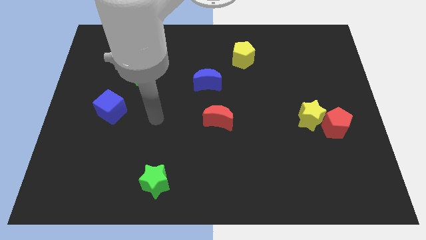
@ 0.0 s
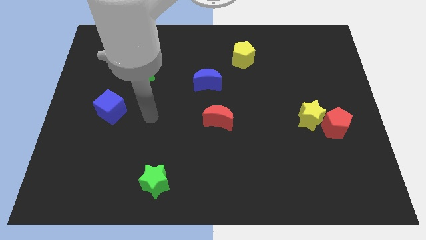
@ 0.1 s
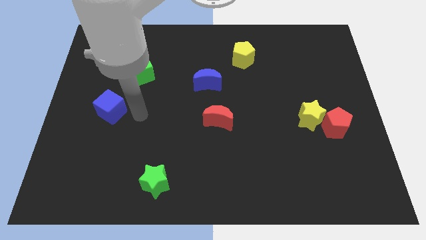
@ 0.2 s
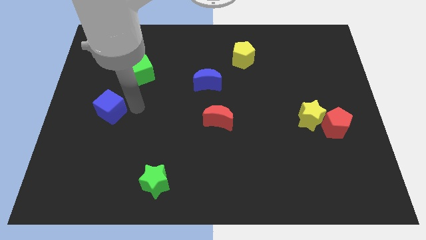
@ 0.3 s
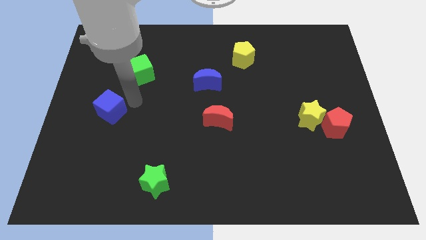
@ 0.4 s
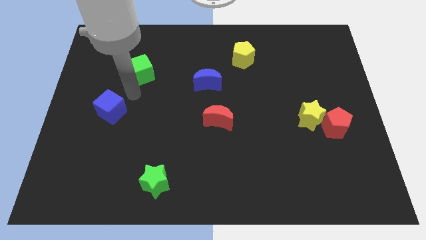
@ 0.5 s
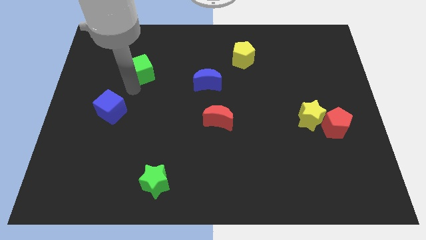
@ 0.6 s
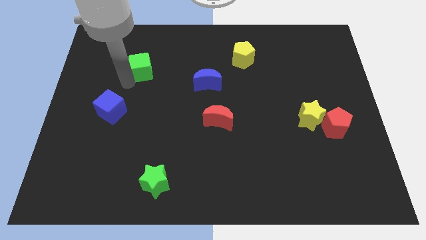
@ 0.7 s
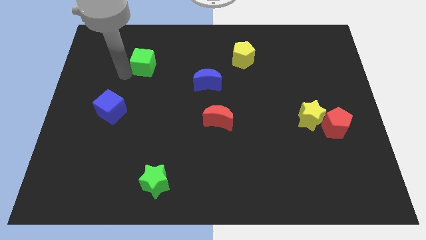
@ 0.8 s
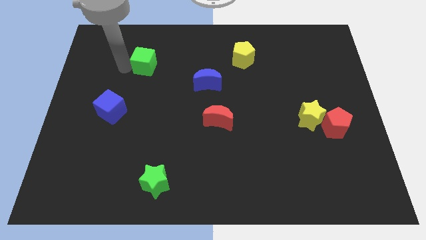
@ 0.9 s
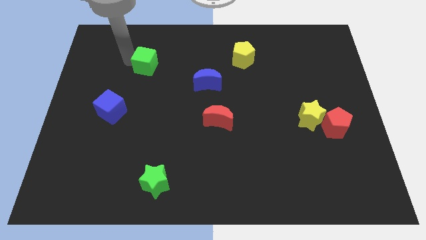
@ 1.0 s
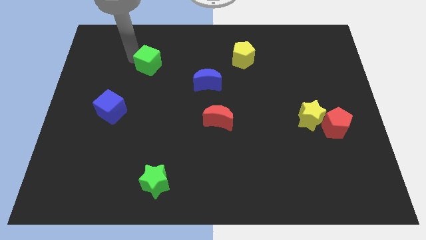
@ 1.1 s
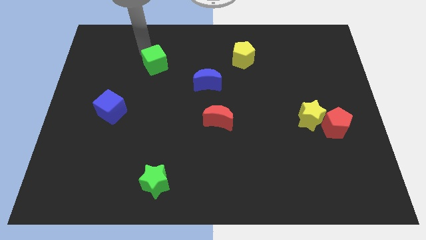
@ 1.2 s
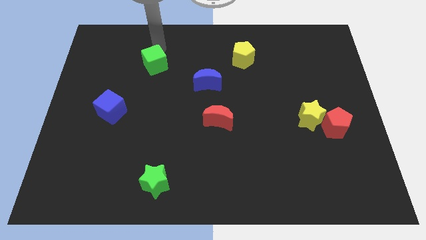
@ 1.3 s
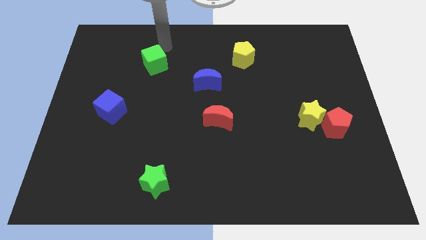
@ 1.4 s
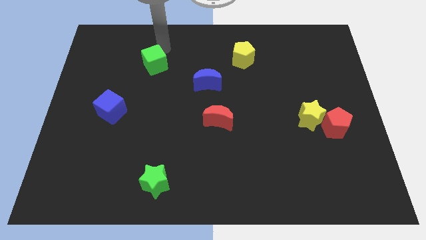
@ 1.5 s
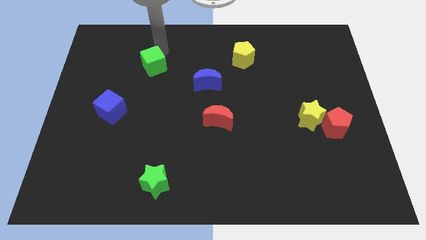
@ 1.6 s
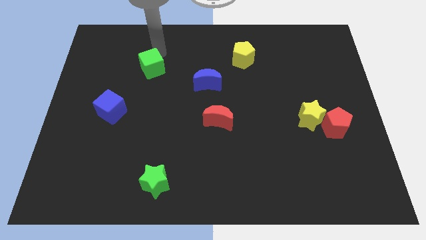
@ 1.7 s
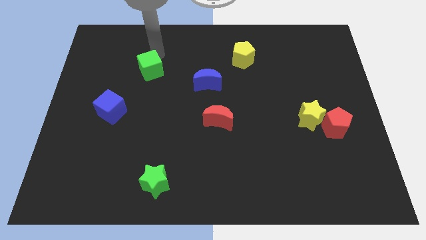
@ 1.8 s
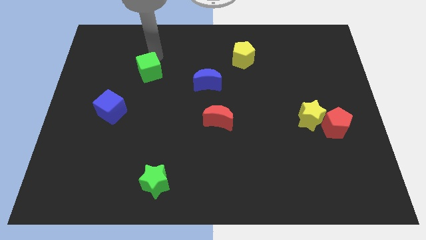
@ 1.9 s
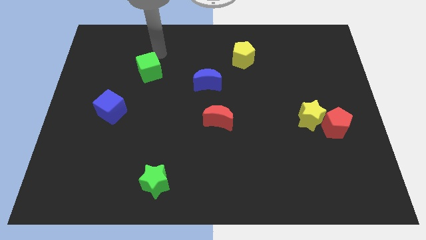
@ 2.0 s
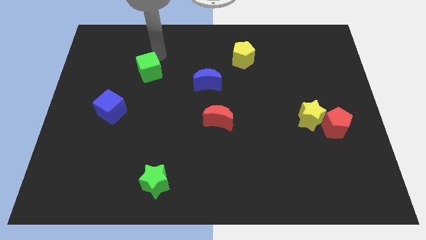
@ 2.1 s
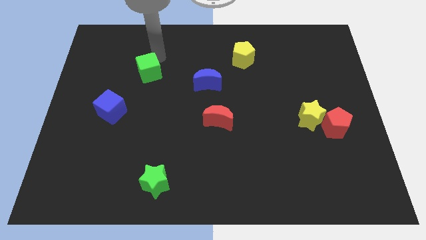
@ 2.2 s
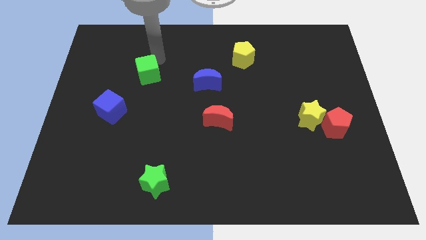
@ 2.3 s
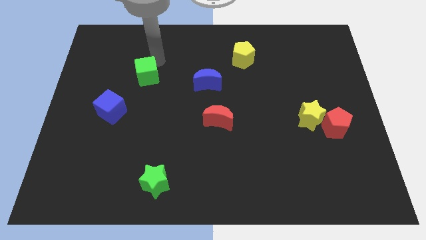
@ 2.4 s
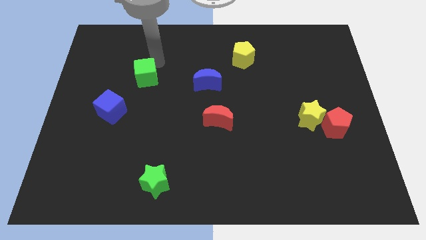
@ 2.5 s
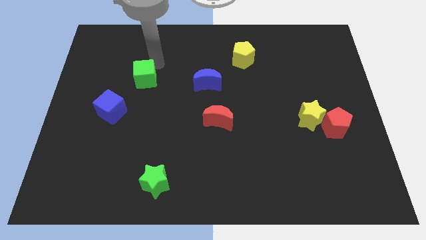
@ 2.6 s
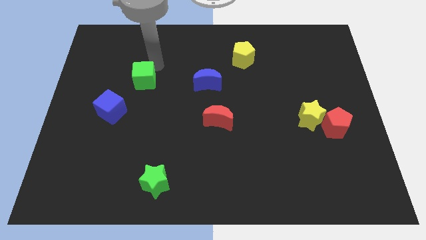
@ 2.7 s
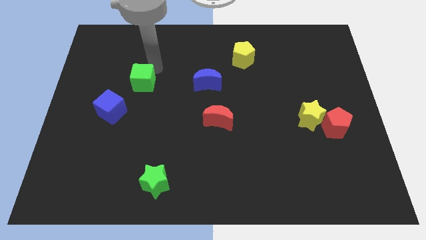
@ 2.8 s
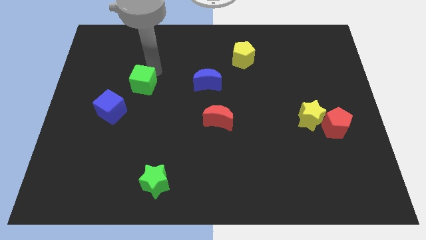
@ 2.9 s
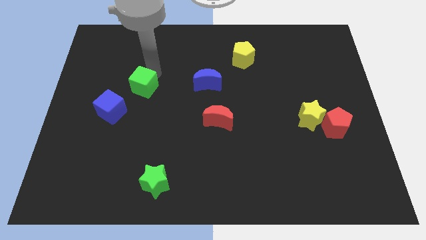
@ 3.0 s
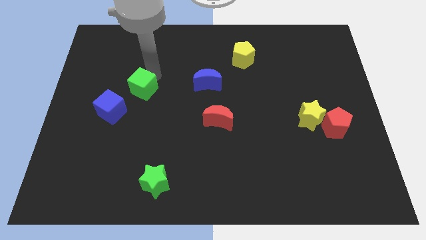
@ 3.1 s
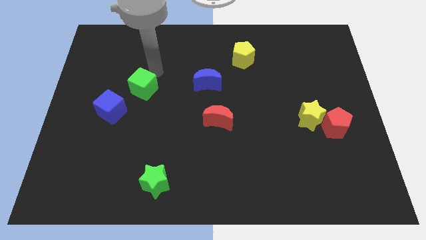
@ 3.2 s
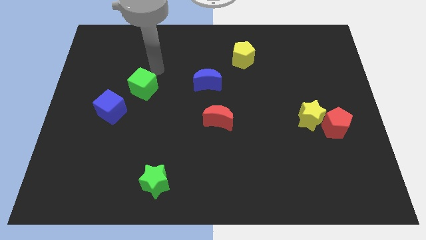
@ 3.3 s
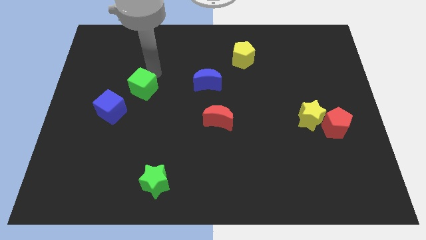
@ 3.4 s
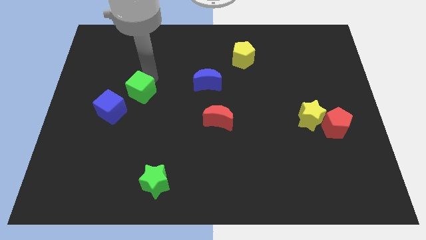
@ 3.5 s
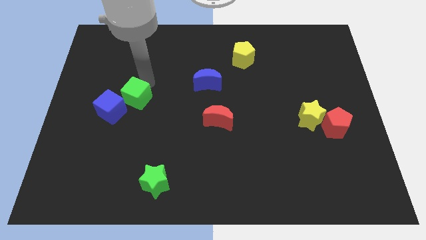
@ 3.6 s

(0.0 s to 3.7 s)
slightly move the green cube downwards

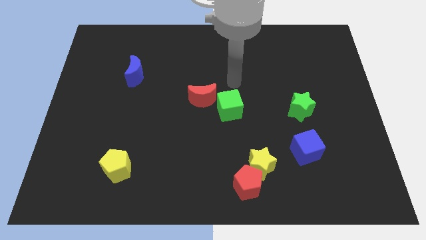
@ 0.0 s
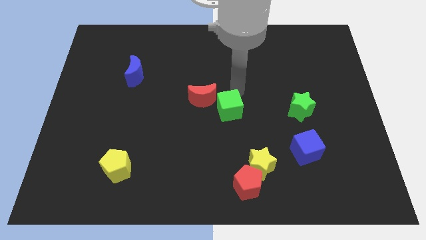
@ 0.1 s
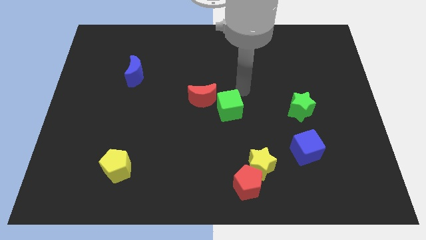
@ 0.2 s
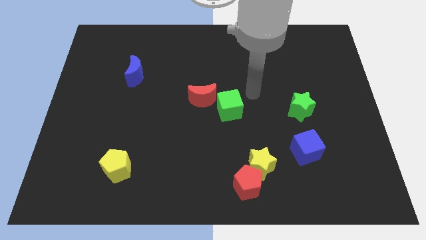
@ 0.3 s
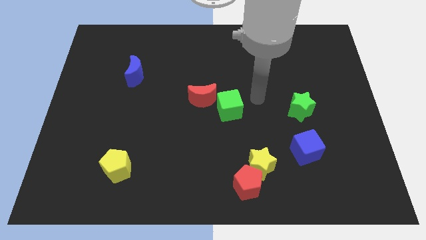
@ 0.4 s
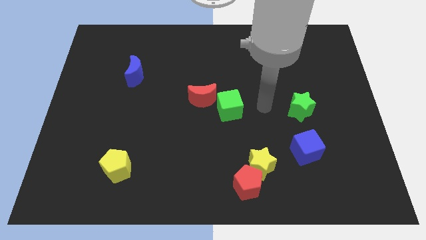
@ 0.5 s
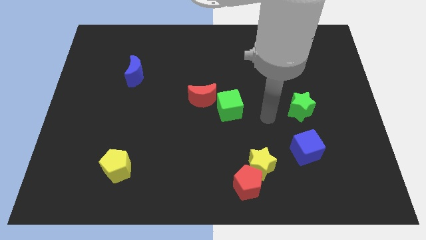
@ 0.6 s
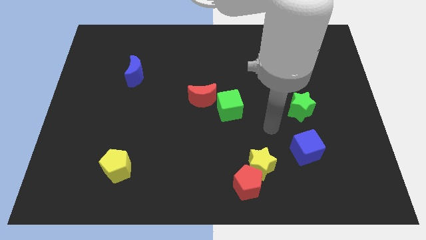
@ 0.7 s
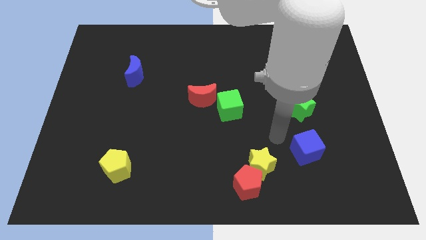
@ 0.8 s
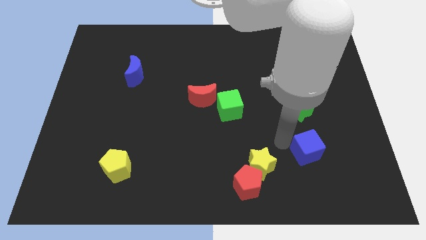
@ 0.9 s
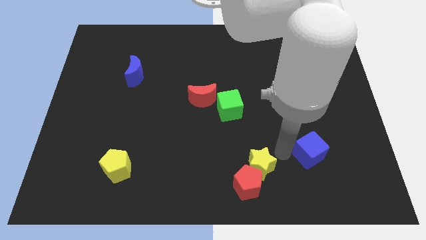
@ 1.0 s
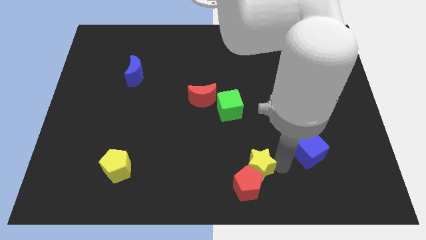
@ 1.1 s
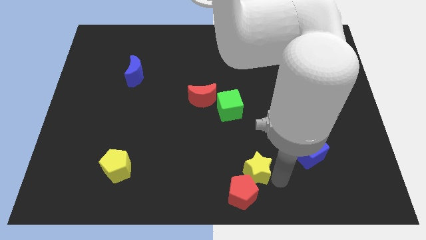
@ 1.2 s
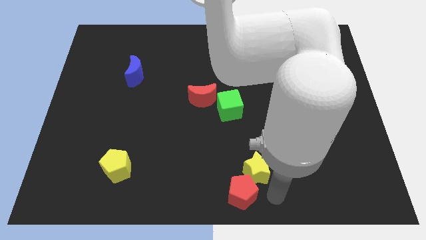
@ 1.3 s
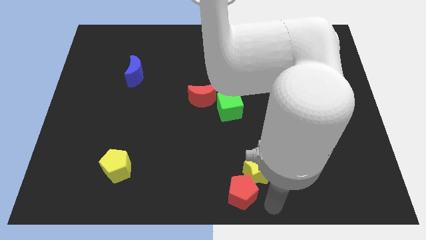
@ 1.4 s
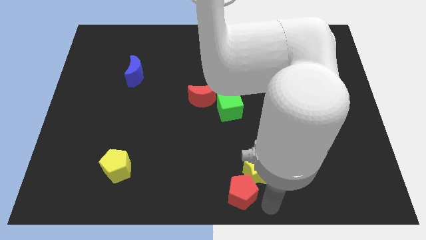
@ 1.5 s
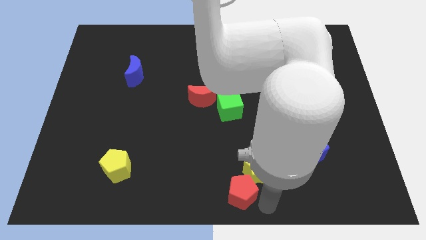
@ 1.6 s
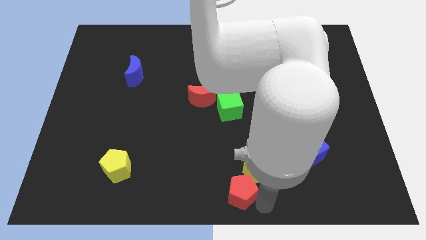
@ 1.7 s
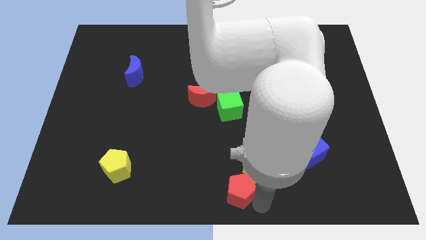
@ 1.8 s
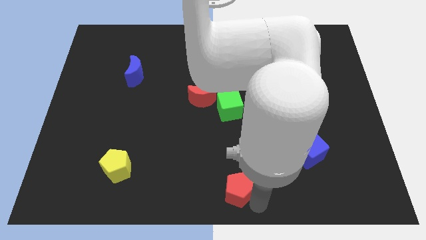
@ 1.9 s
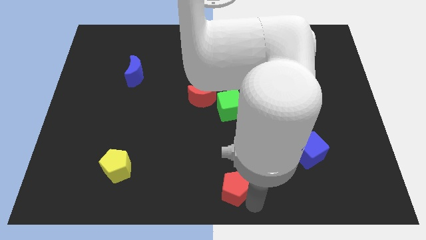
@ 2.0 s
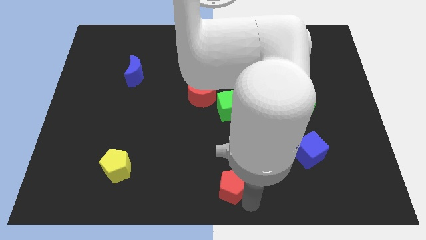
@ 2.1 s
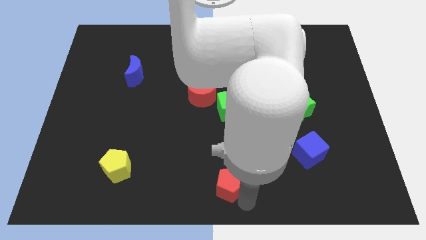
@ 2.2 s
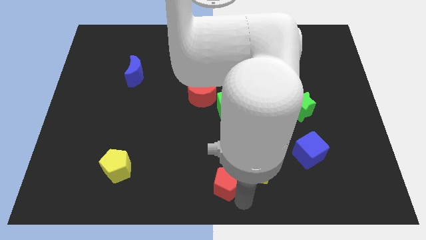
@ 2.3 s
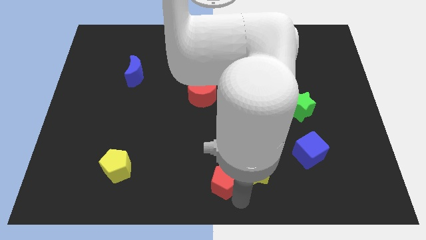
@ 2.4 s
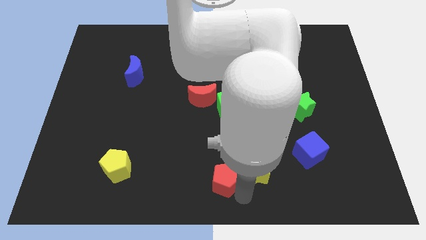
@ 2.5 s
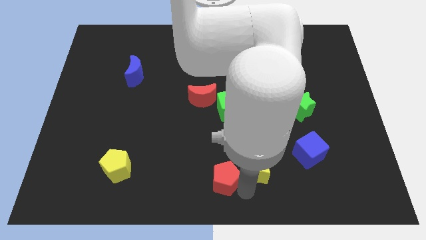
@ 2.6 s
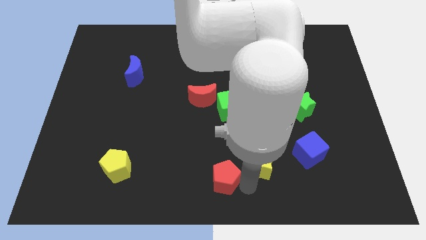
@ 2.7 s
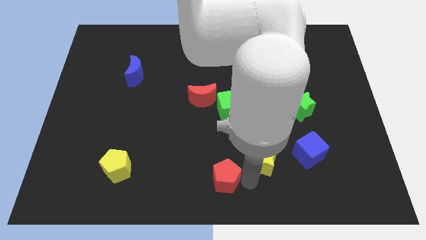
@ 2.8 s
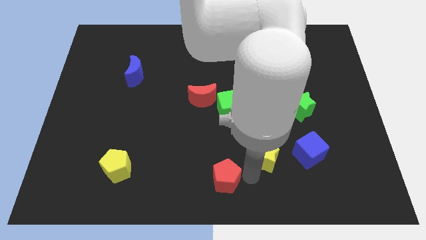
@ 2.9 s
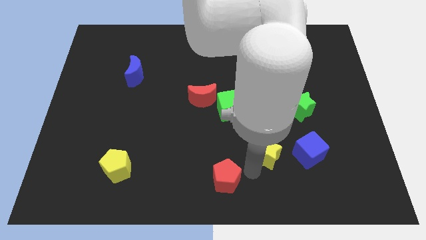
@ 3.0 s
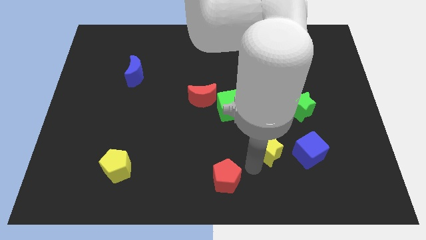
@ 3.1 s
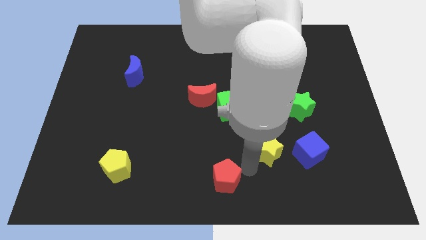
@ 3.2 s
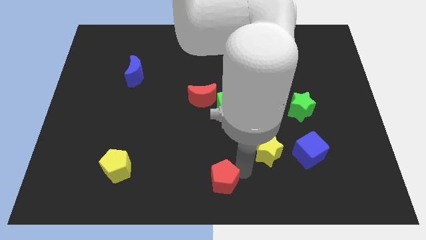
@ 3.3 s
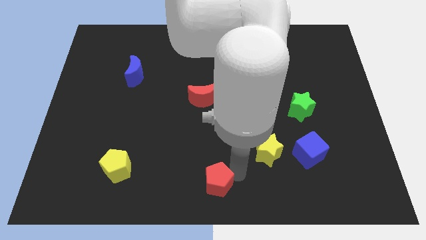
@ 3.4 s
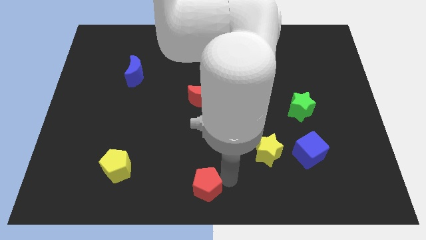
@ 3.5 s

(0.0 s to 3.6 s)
slightly push the red pentagon to the left

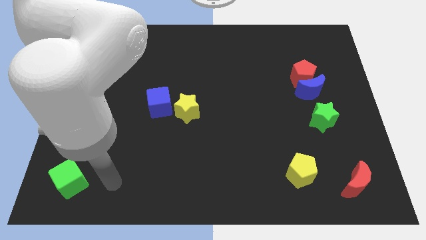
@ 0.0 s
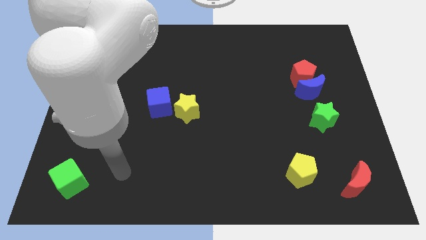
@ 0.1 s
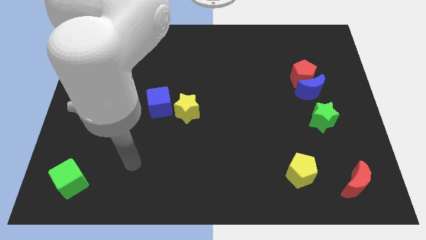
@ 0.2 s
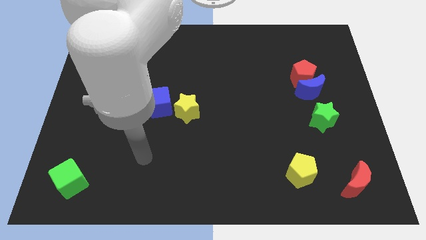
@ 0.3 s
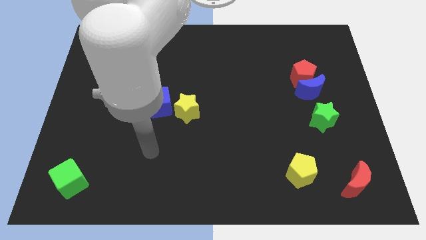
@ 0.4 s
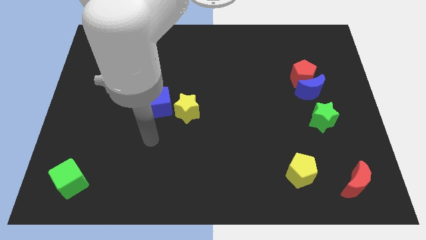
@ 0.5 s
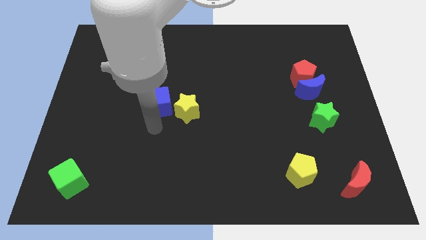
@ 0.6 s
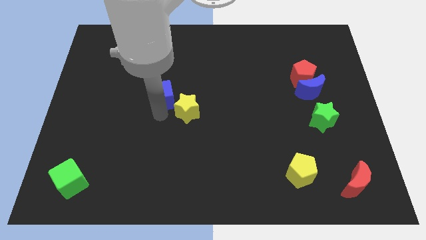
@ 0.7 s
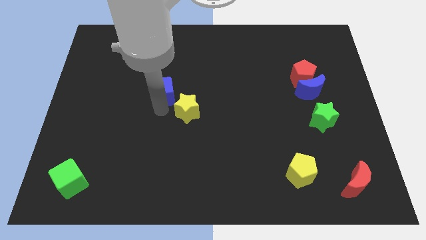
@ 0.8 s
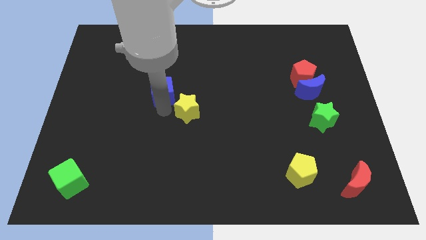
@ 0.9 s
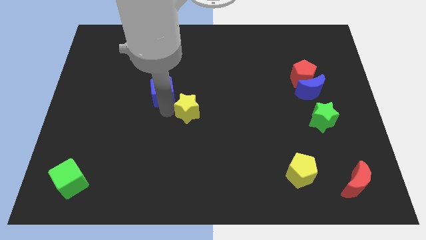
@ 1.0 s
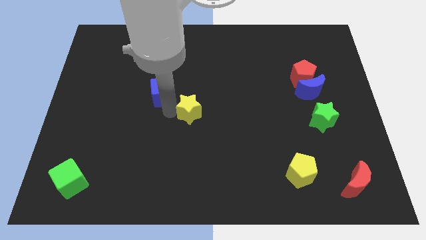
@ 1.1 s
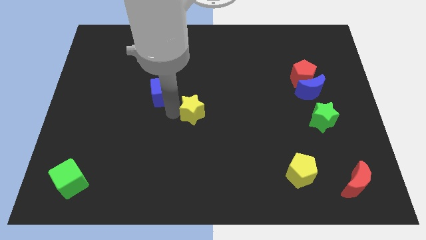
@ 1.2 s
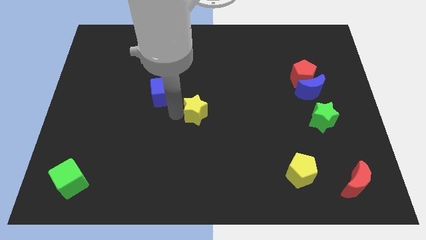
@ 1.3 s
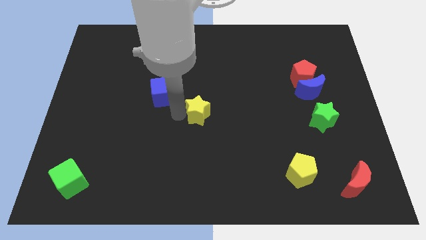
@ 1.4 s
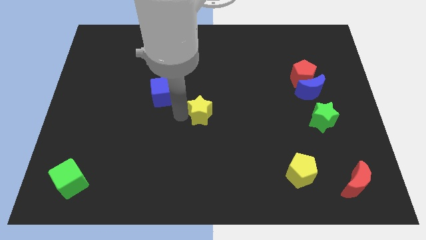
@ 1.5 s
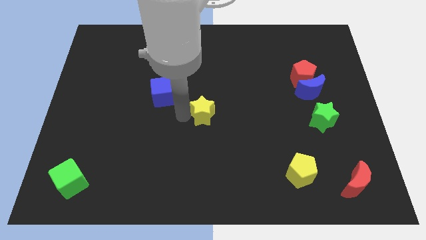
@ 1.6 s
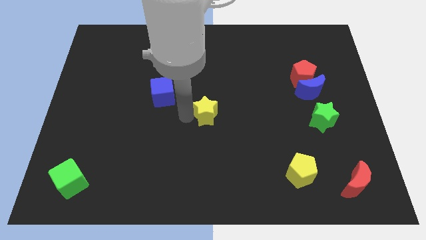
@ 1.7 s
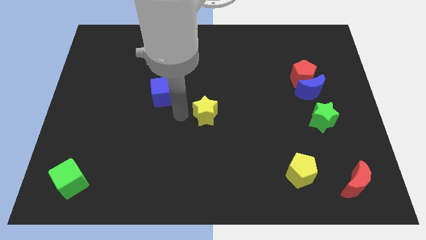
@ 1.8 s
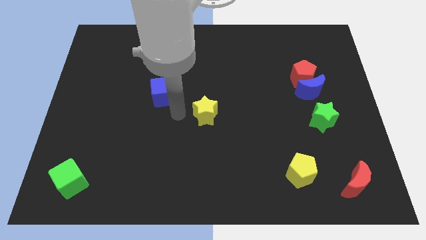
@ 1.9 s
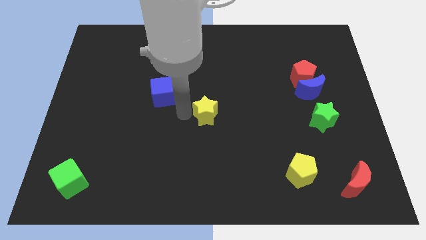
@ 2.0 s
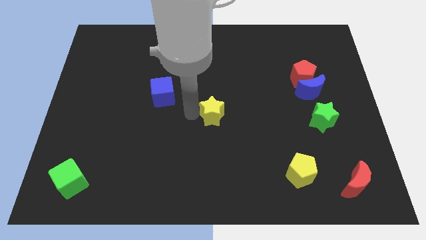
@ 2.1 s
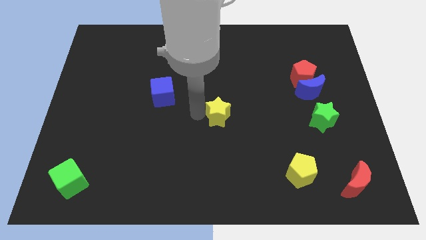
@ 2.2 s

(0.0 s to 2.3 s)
move the yellow star somewhat to the right
